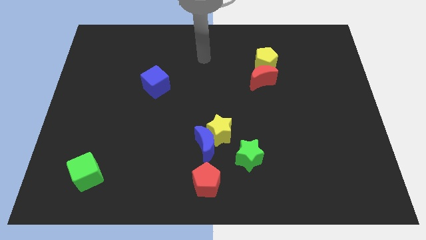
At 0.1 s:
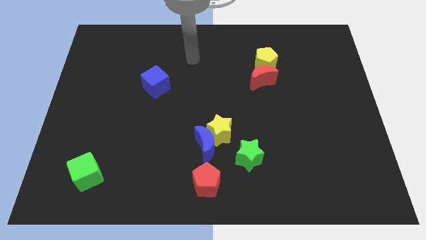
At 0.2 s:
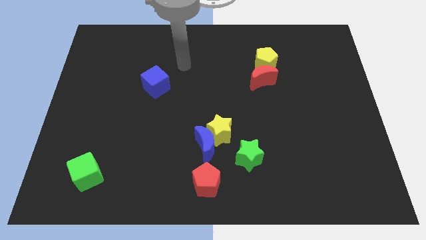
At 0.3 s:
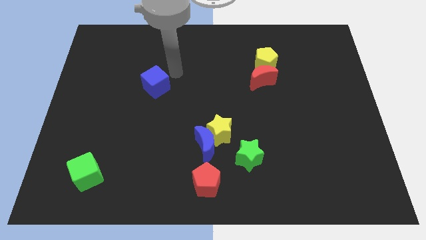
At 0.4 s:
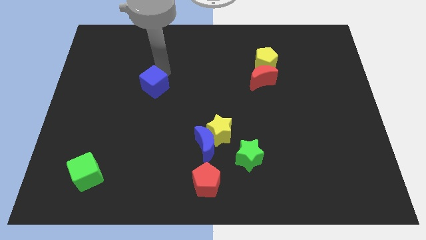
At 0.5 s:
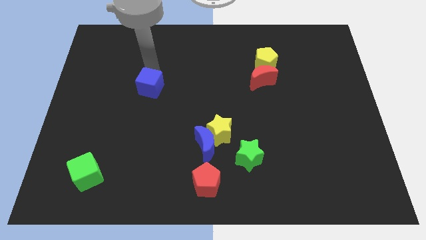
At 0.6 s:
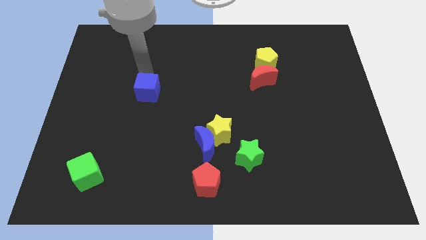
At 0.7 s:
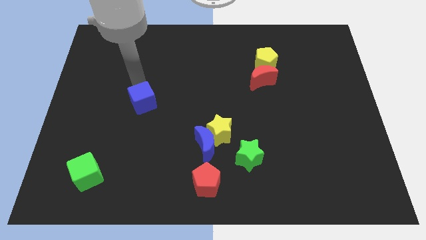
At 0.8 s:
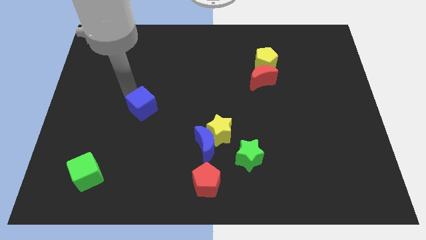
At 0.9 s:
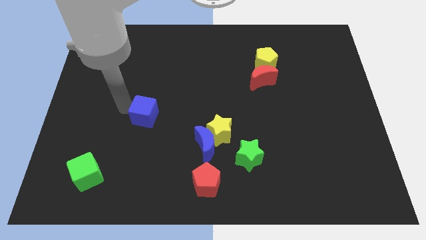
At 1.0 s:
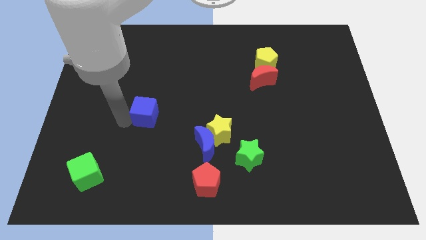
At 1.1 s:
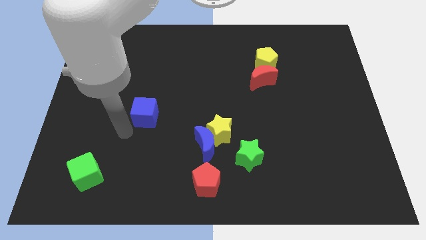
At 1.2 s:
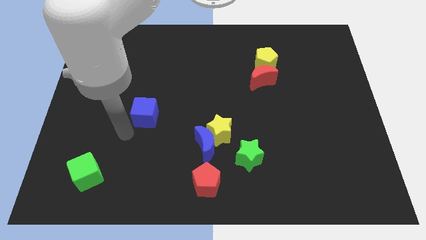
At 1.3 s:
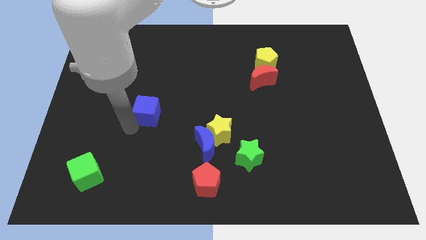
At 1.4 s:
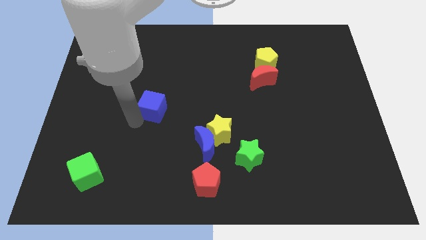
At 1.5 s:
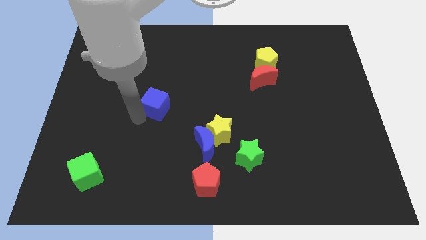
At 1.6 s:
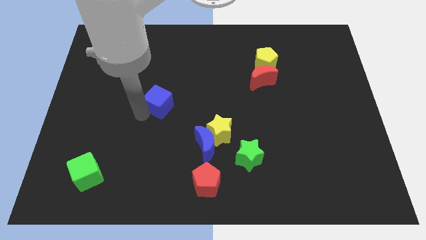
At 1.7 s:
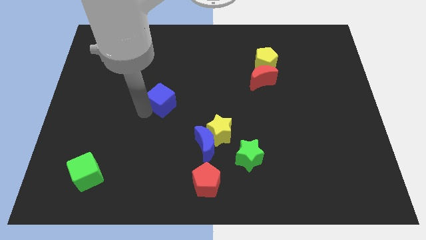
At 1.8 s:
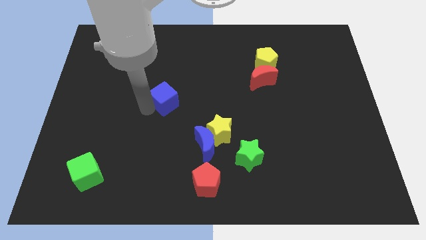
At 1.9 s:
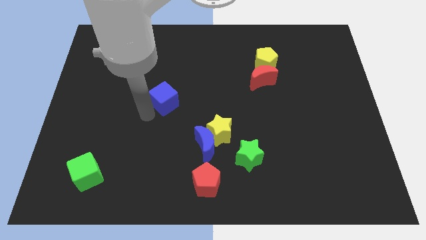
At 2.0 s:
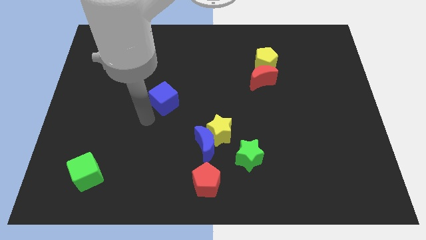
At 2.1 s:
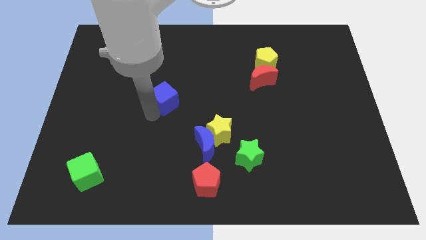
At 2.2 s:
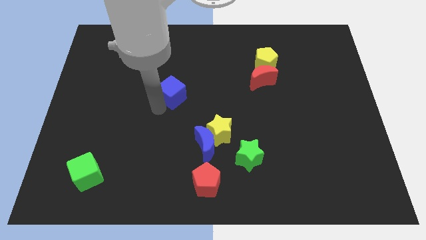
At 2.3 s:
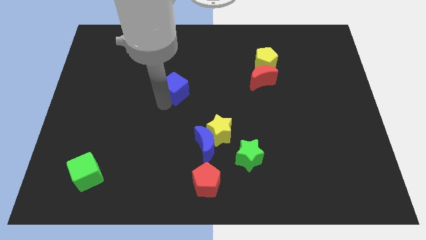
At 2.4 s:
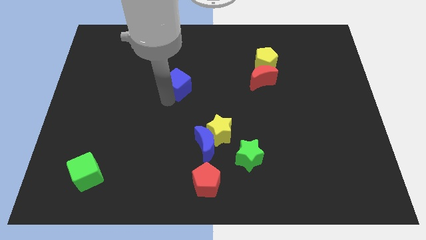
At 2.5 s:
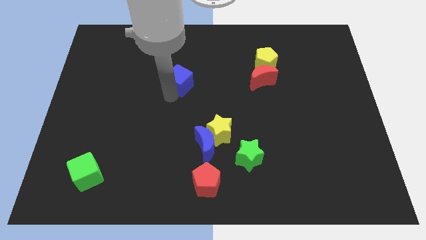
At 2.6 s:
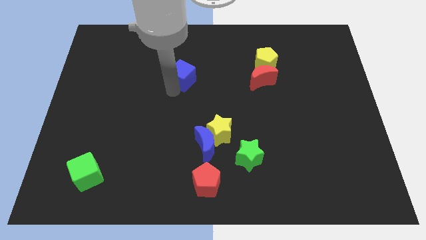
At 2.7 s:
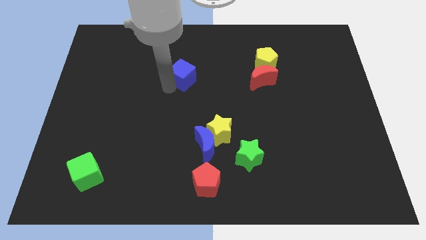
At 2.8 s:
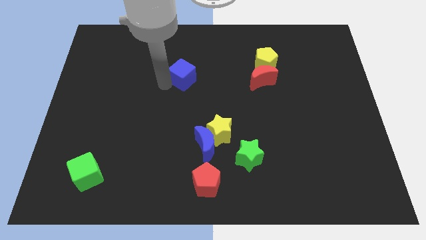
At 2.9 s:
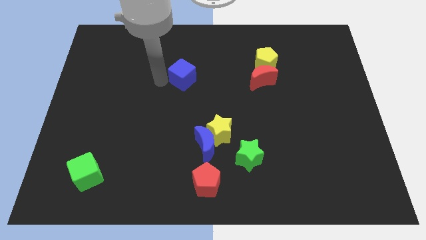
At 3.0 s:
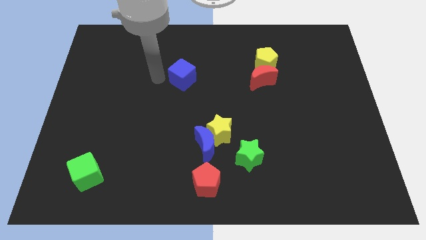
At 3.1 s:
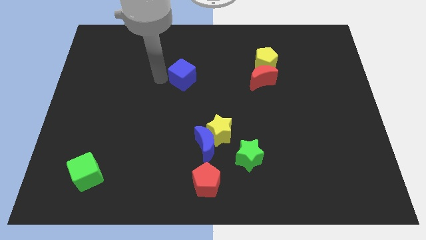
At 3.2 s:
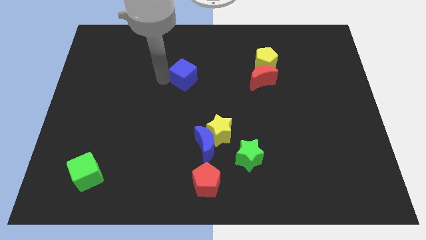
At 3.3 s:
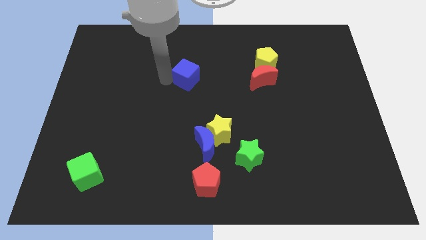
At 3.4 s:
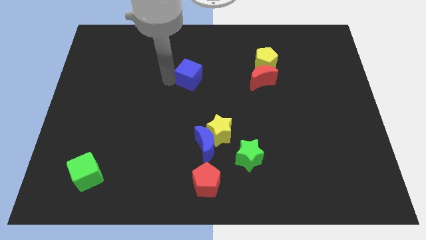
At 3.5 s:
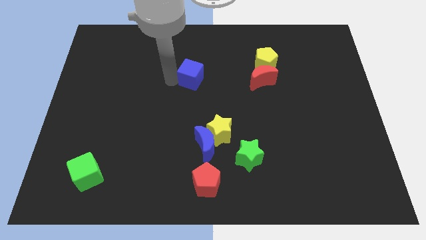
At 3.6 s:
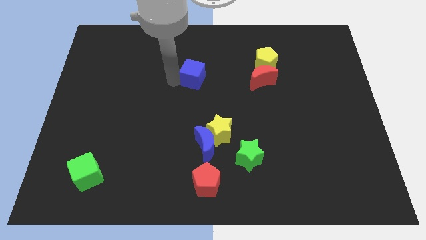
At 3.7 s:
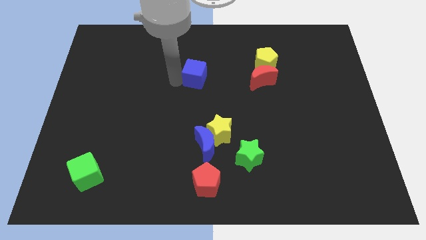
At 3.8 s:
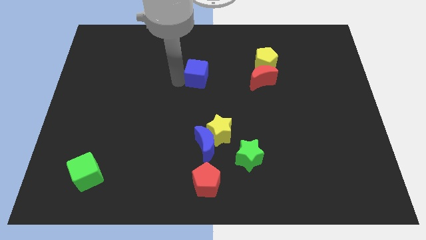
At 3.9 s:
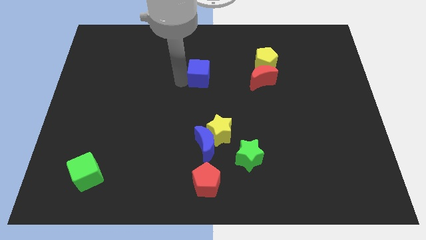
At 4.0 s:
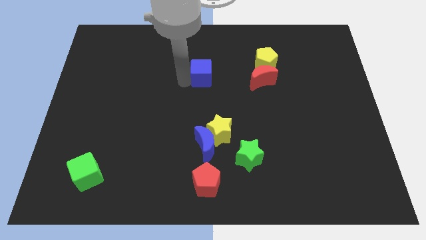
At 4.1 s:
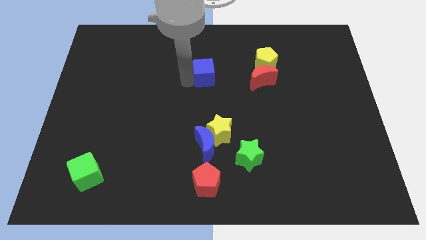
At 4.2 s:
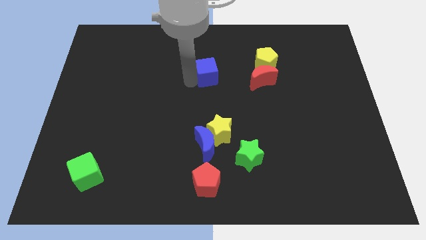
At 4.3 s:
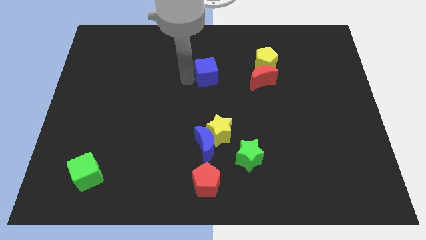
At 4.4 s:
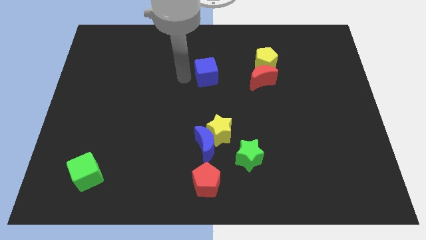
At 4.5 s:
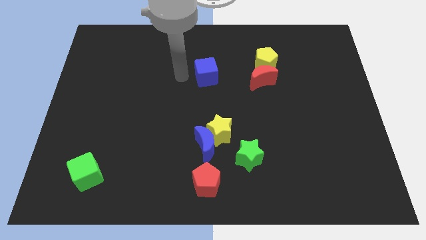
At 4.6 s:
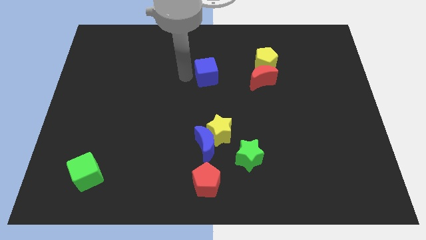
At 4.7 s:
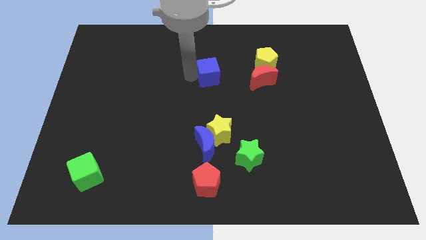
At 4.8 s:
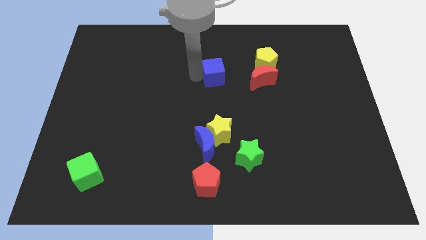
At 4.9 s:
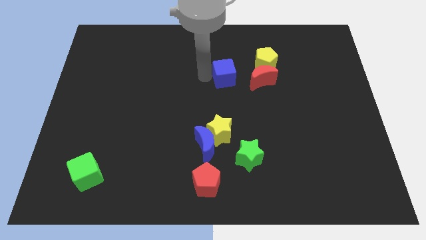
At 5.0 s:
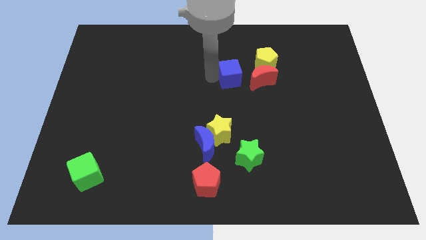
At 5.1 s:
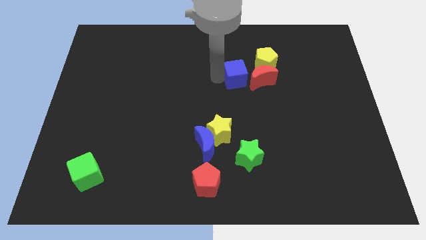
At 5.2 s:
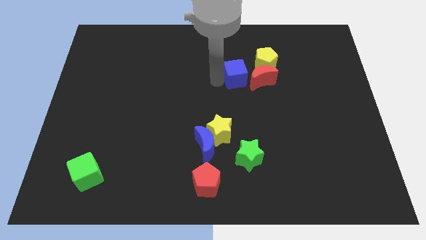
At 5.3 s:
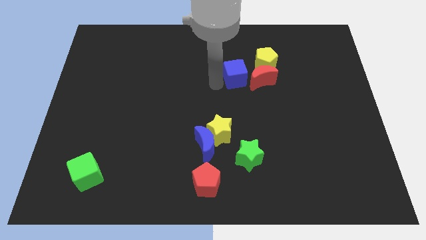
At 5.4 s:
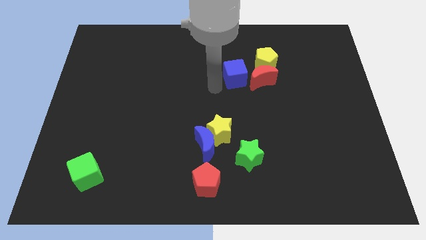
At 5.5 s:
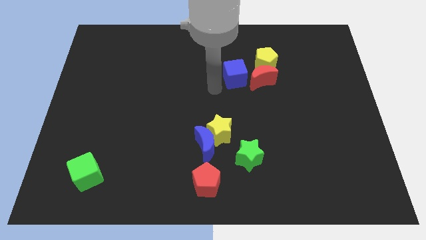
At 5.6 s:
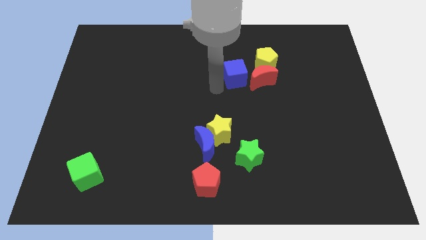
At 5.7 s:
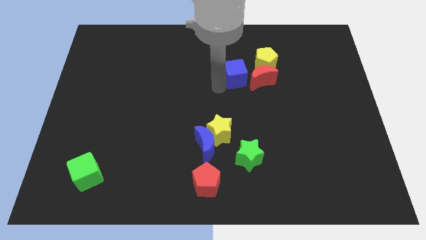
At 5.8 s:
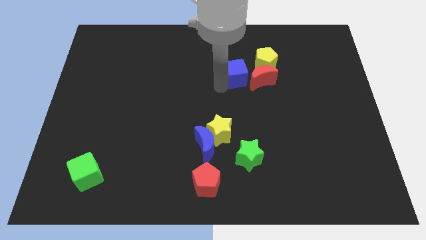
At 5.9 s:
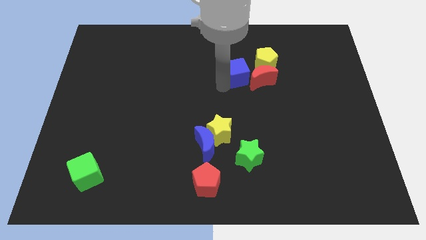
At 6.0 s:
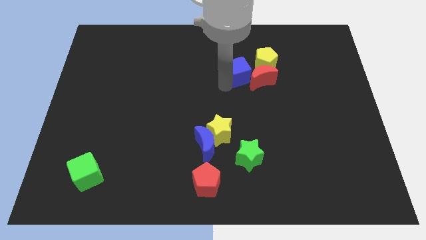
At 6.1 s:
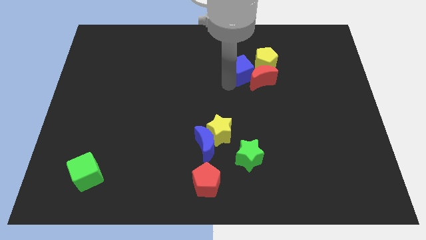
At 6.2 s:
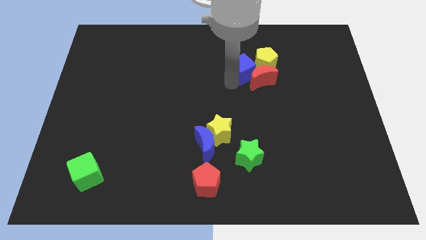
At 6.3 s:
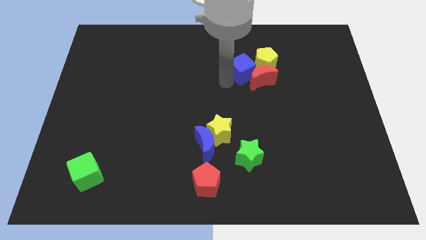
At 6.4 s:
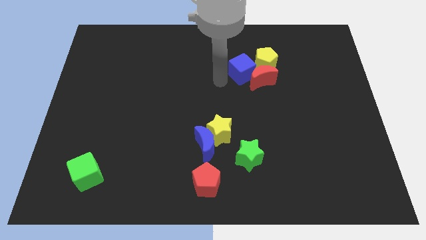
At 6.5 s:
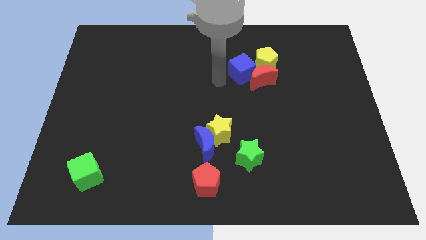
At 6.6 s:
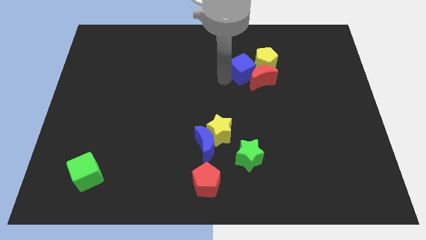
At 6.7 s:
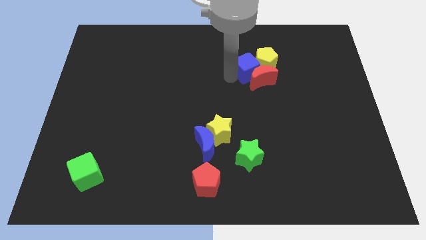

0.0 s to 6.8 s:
put the blue cube to the yellow pentagon

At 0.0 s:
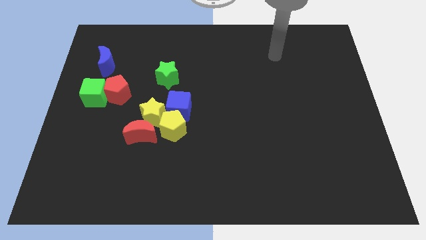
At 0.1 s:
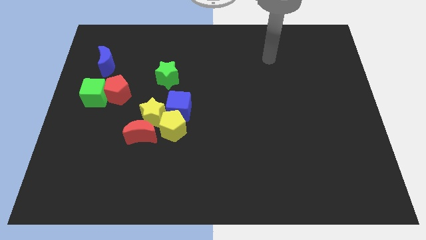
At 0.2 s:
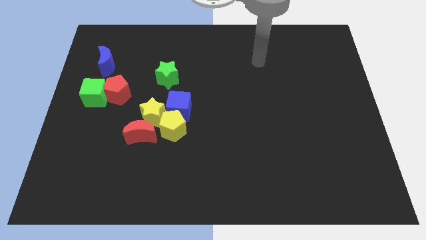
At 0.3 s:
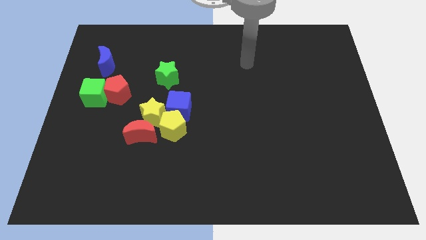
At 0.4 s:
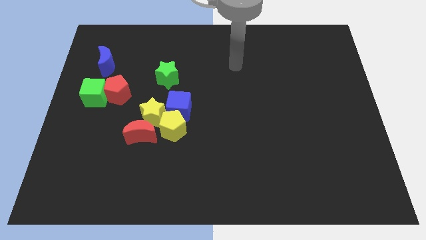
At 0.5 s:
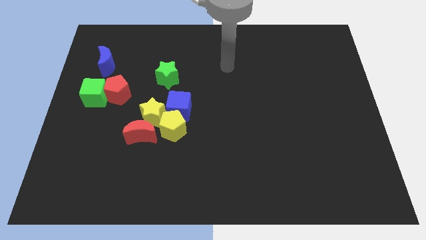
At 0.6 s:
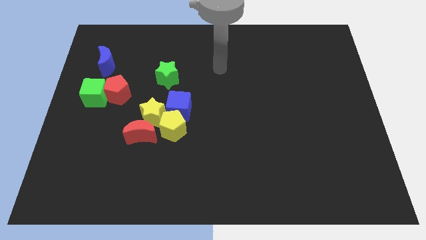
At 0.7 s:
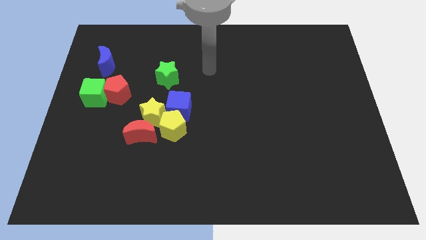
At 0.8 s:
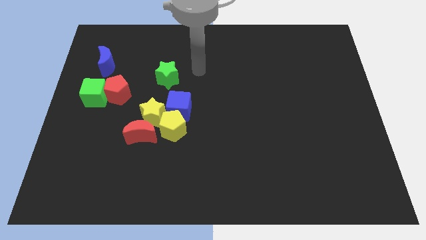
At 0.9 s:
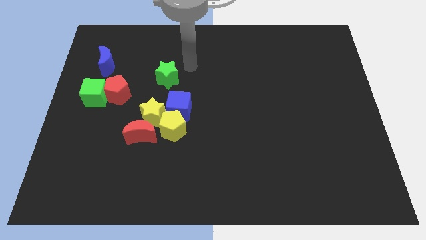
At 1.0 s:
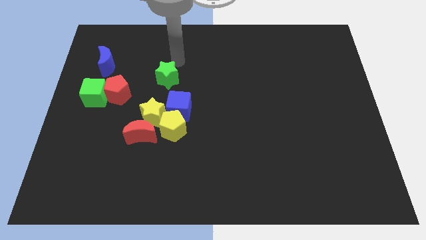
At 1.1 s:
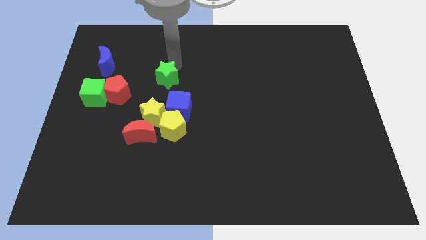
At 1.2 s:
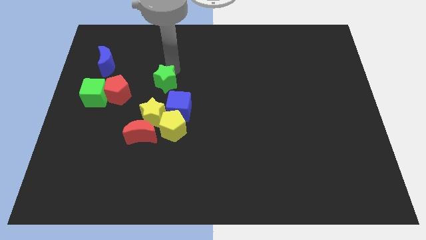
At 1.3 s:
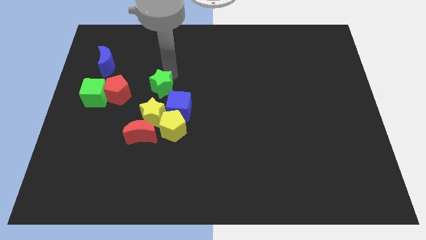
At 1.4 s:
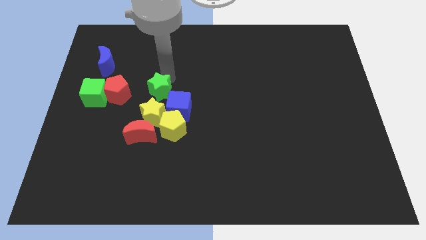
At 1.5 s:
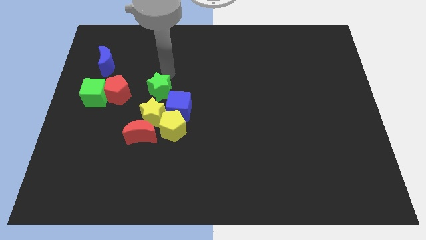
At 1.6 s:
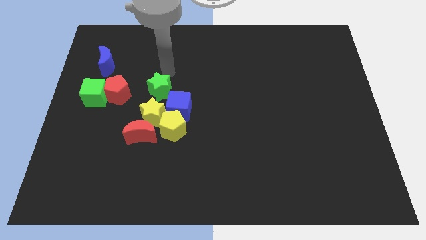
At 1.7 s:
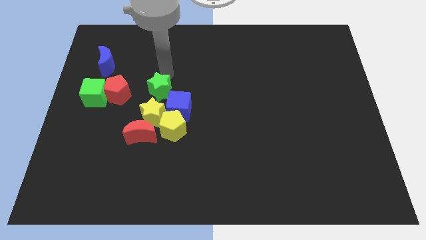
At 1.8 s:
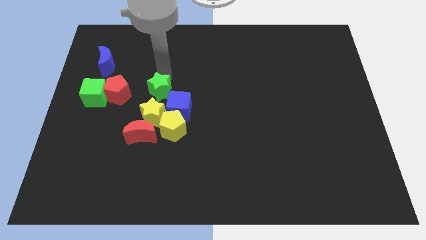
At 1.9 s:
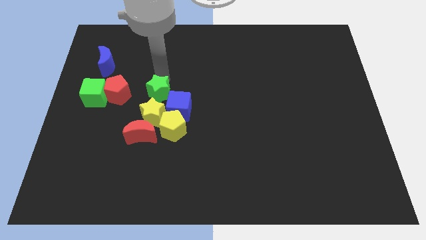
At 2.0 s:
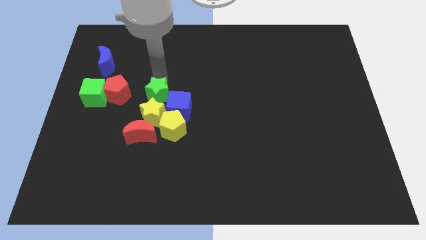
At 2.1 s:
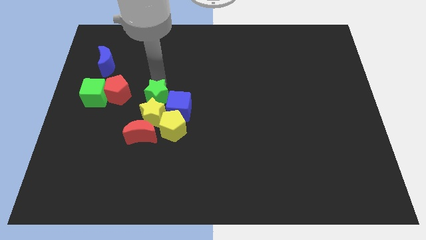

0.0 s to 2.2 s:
push the green star next to the yellow star
